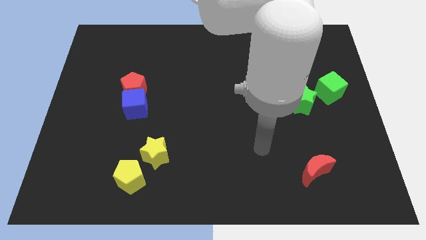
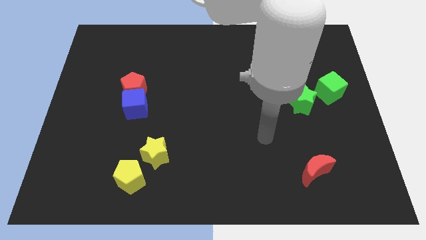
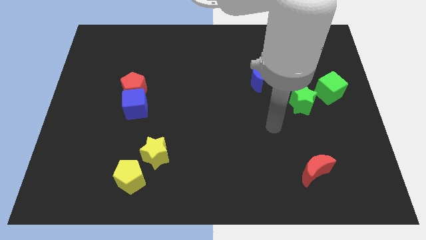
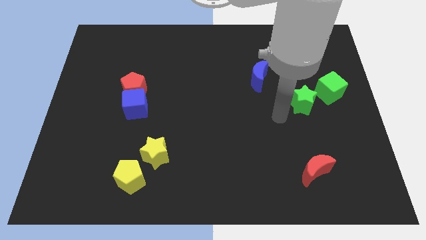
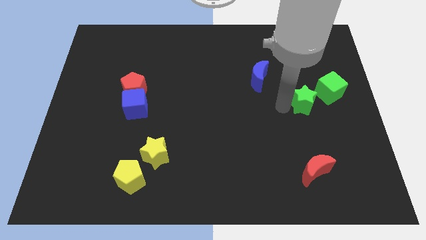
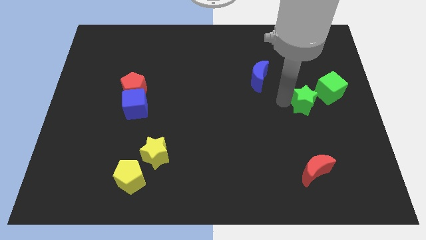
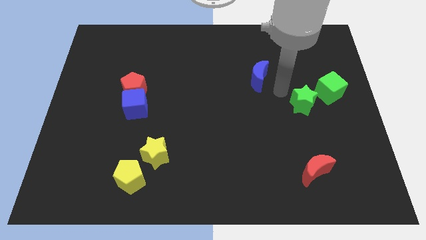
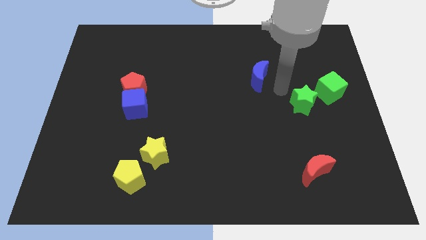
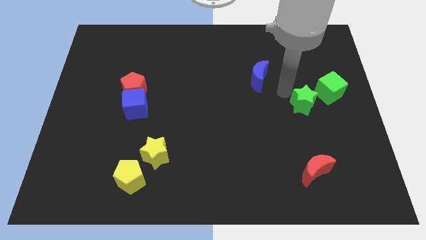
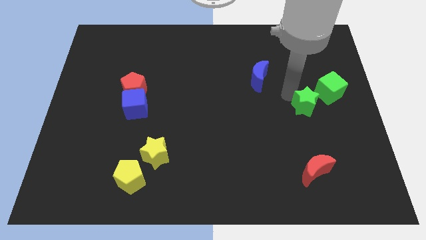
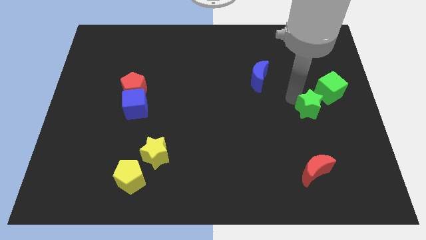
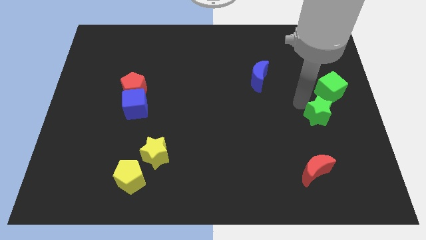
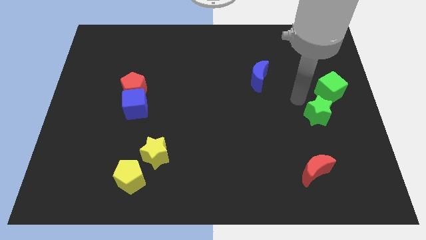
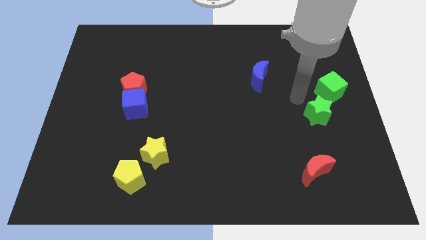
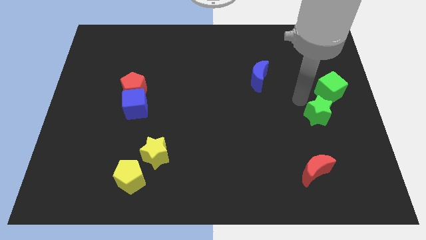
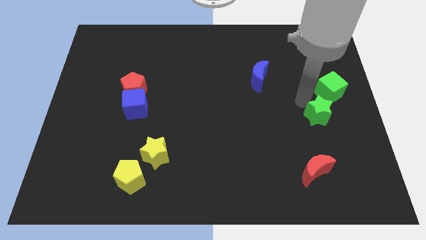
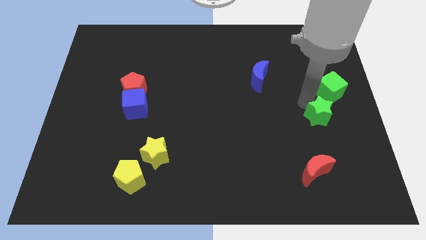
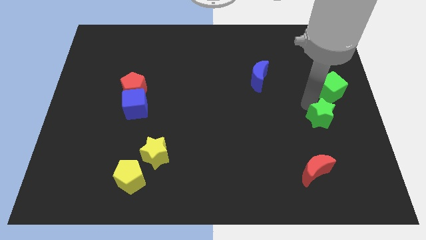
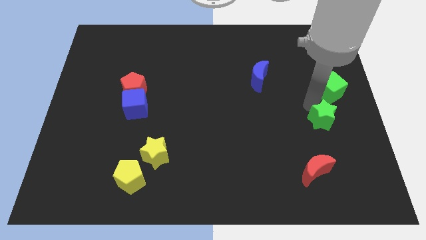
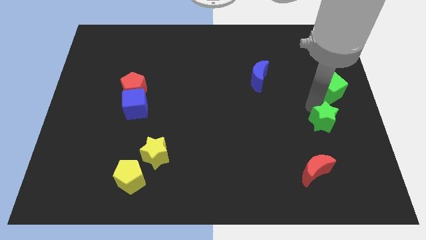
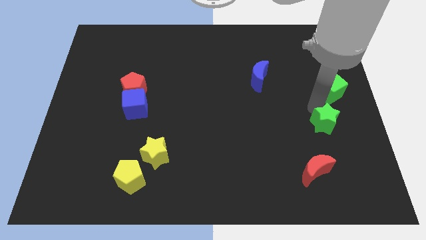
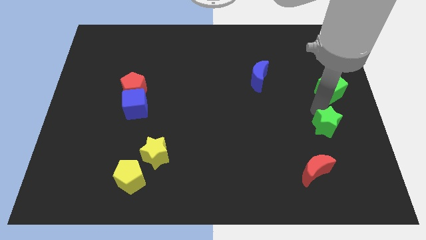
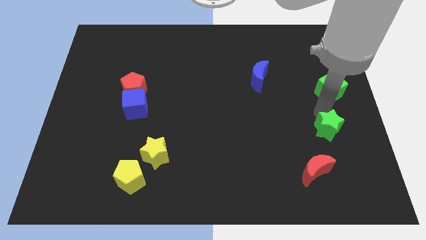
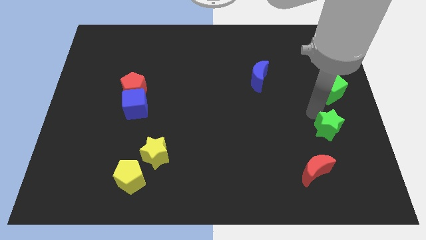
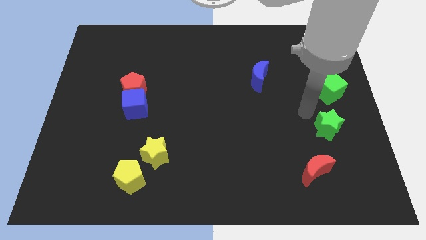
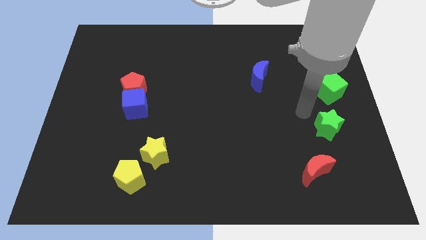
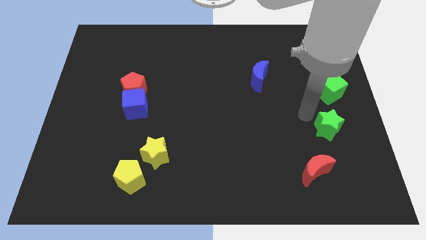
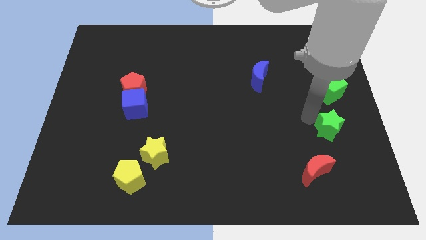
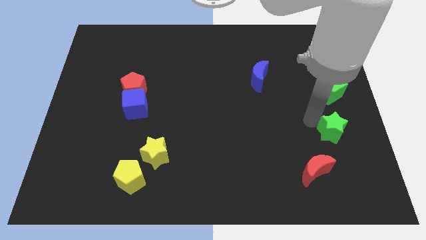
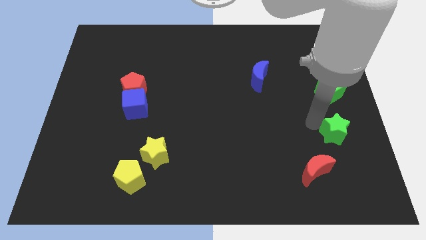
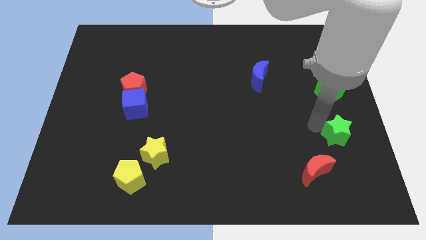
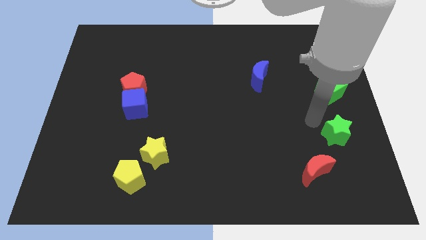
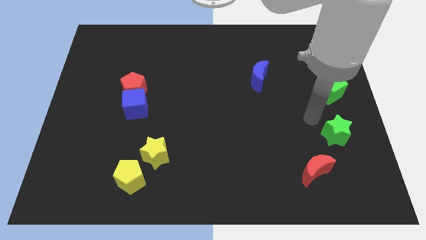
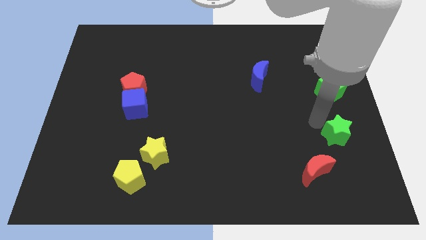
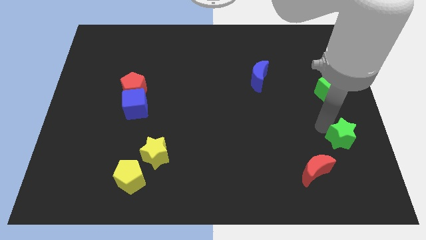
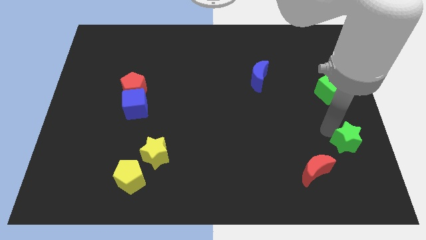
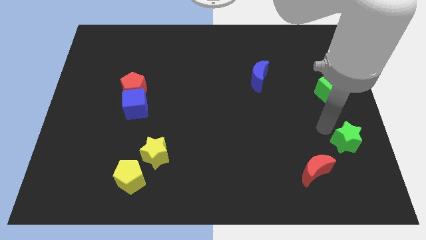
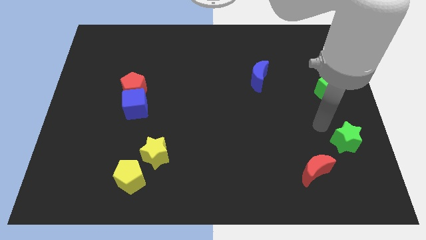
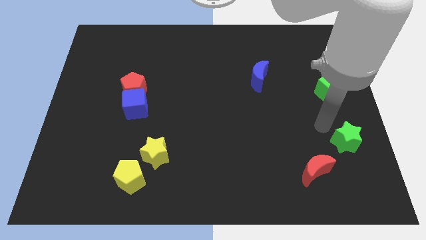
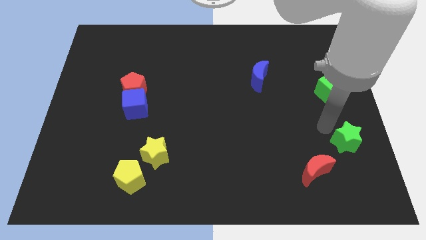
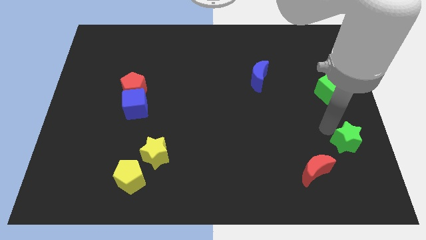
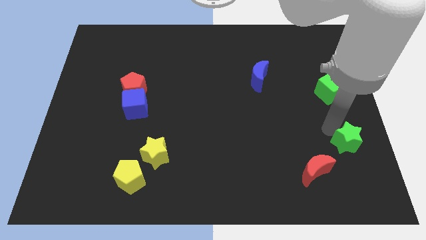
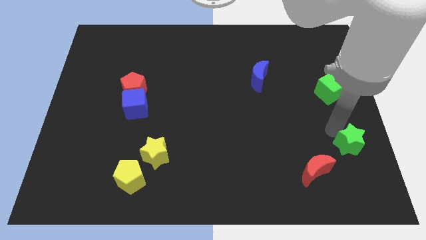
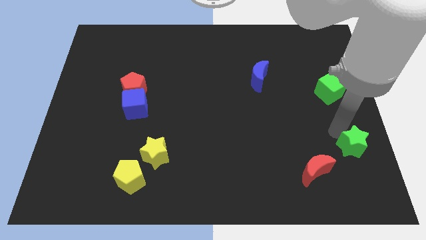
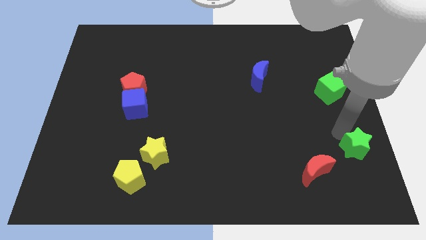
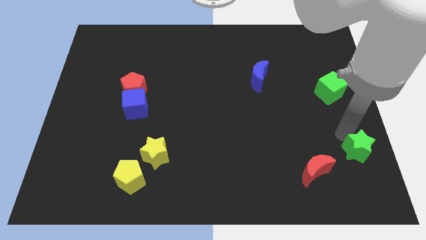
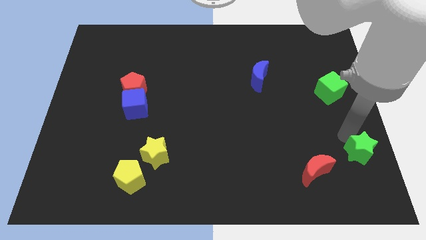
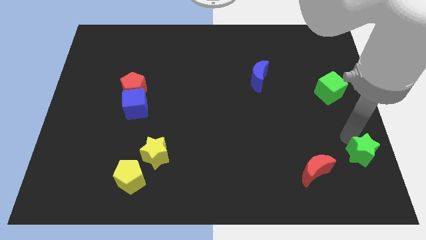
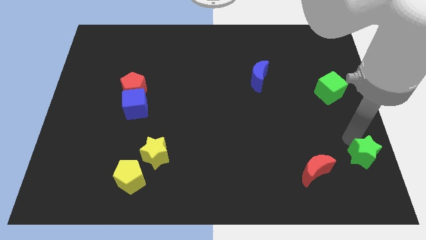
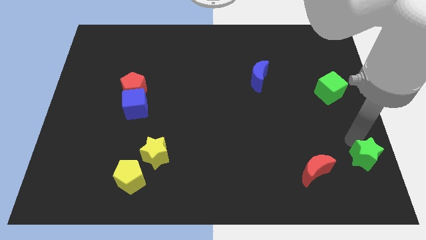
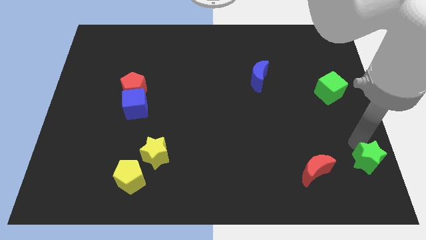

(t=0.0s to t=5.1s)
push the green star to the lower right corner

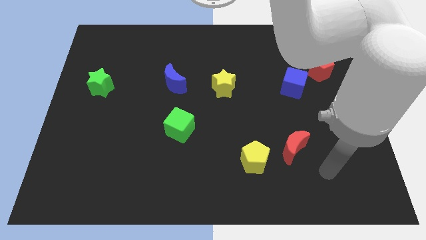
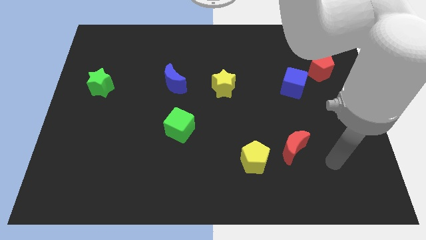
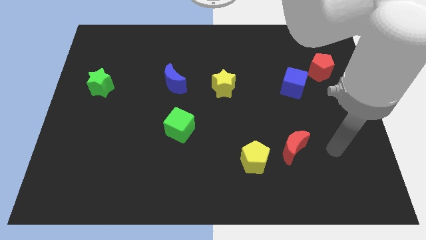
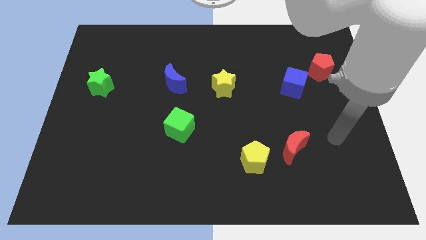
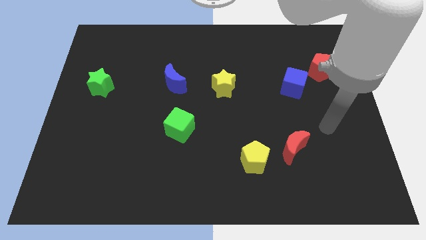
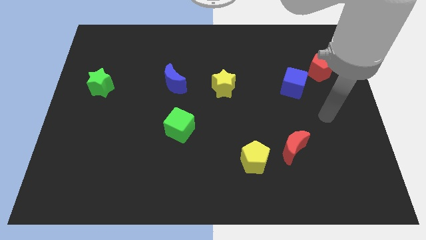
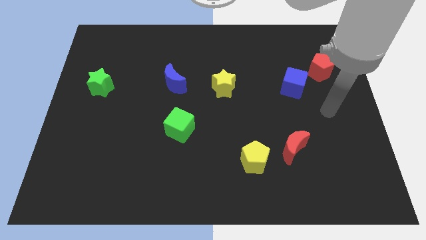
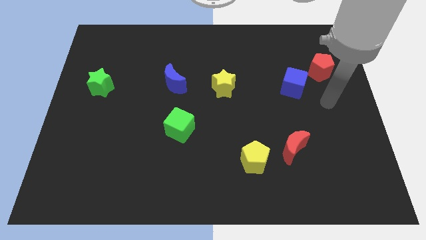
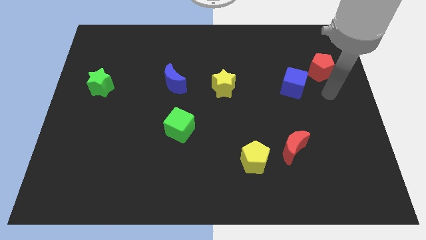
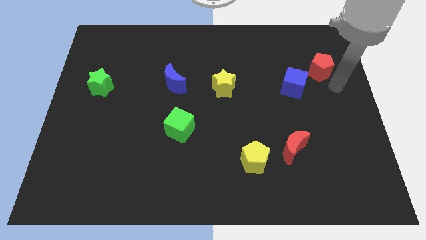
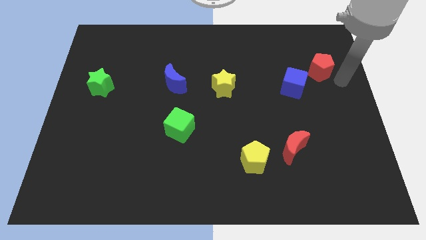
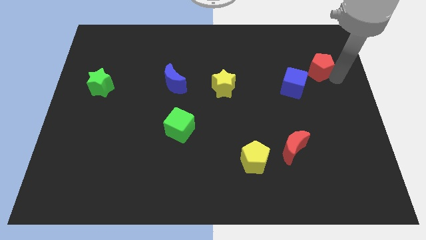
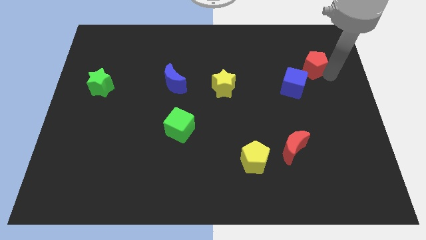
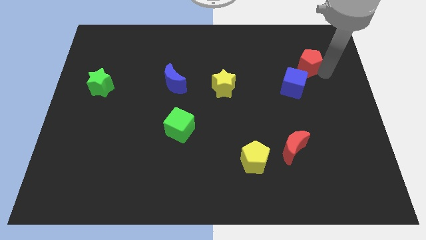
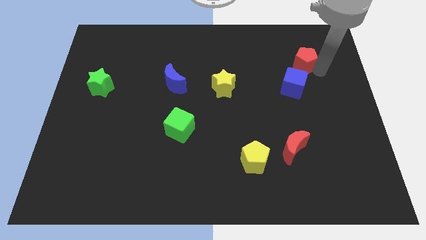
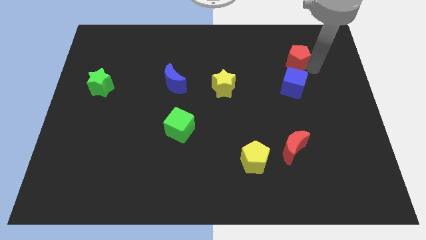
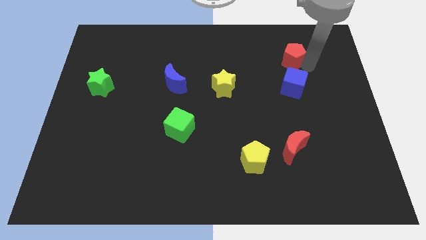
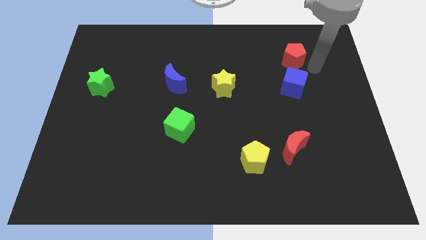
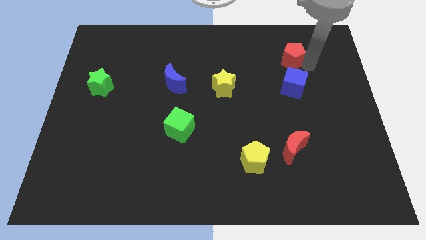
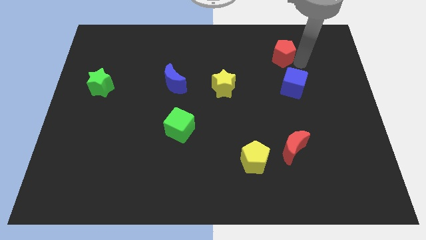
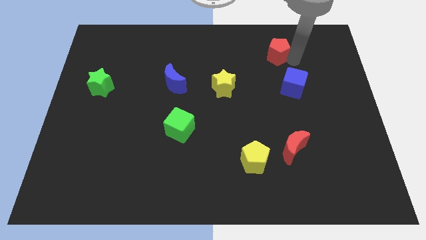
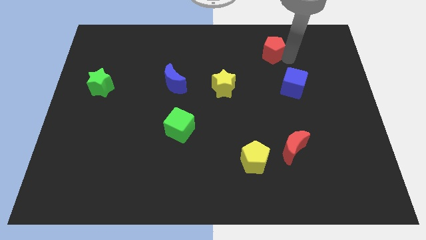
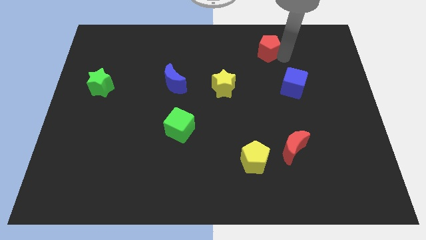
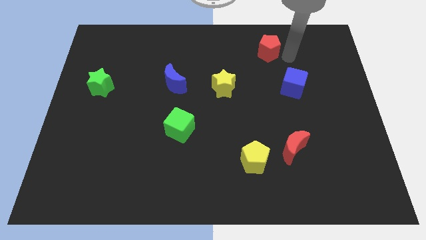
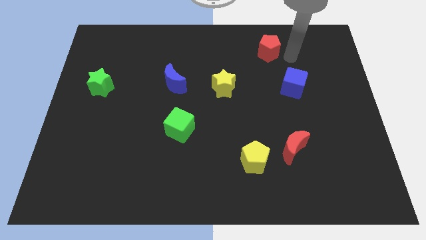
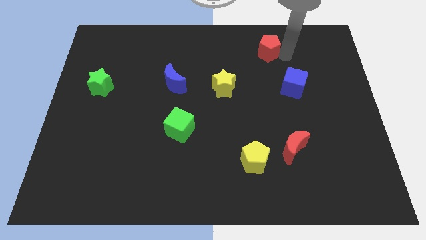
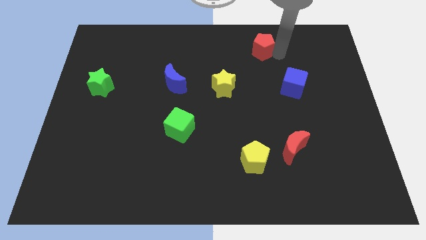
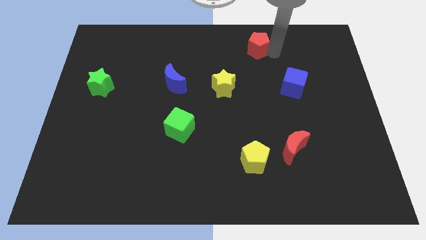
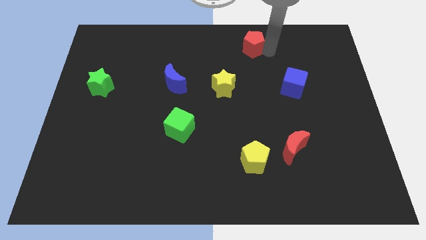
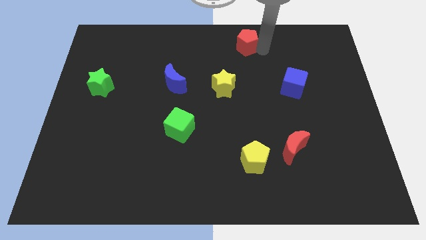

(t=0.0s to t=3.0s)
put the red pentagon to the top side
